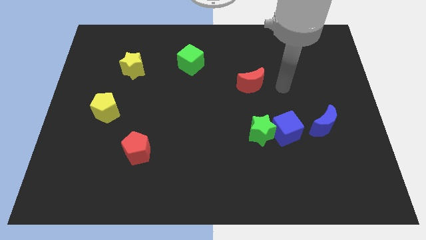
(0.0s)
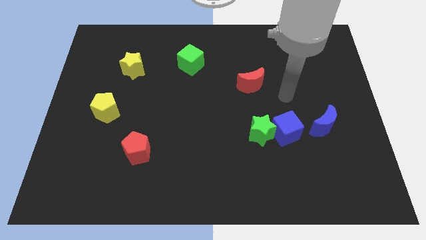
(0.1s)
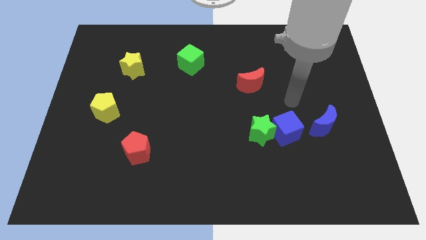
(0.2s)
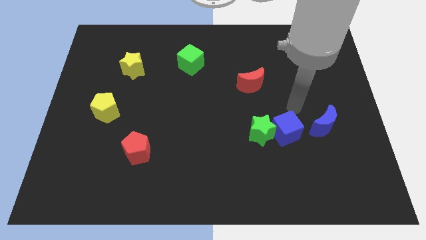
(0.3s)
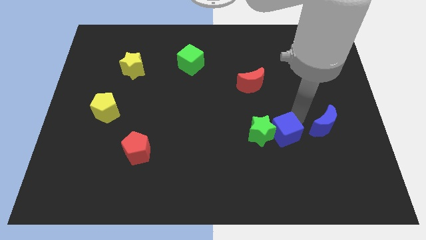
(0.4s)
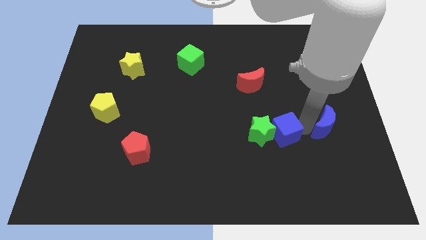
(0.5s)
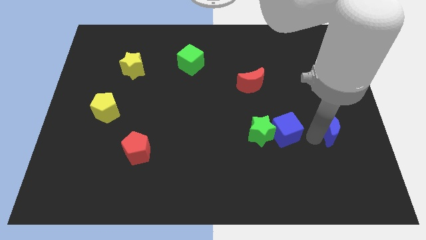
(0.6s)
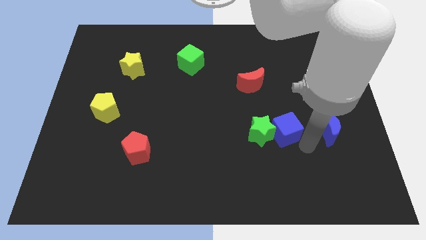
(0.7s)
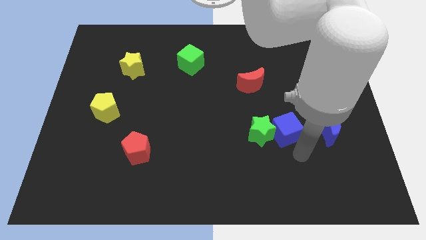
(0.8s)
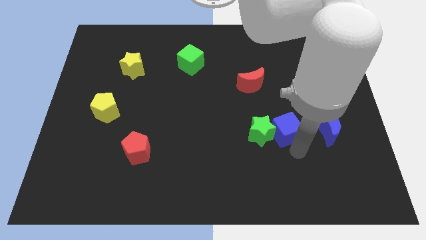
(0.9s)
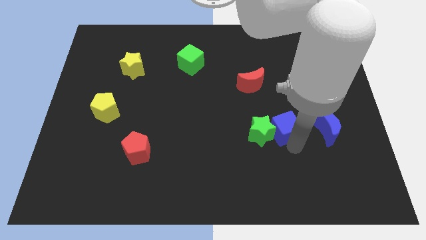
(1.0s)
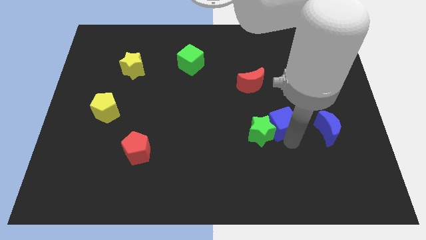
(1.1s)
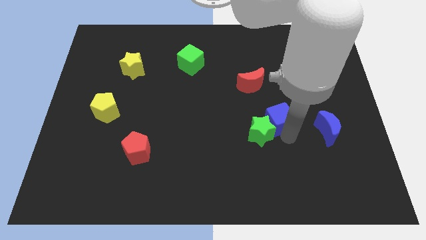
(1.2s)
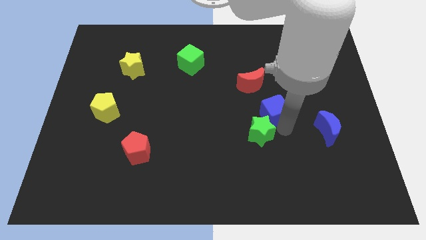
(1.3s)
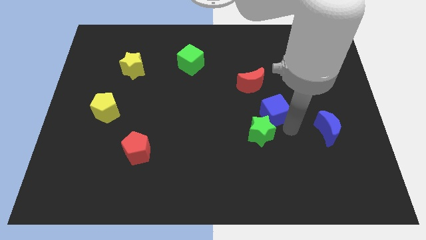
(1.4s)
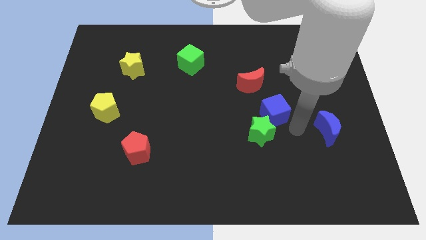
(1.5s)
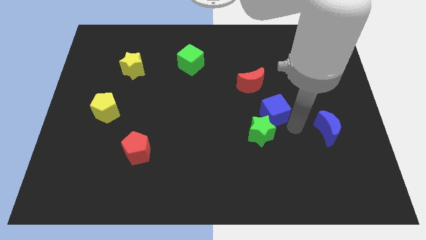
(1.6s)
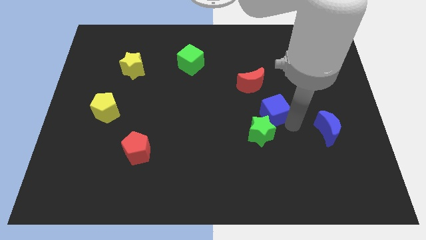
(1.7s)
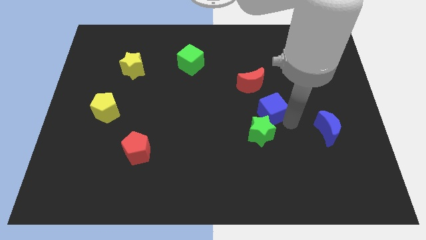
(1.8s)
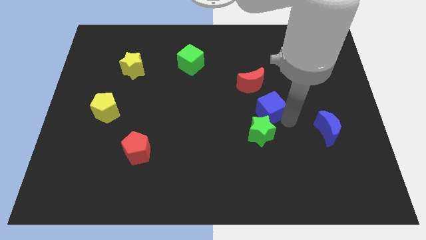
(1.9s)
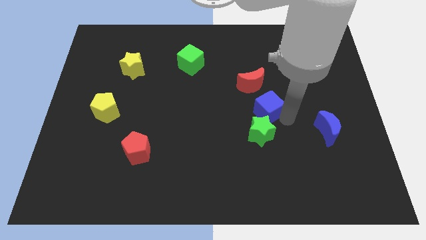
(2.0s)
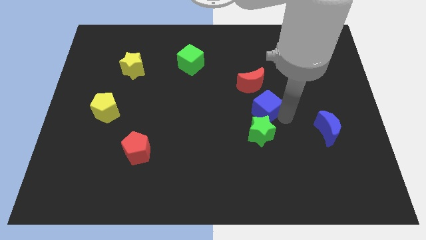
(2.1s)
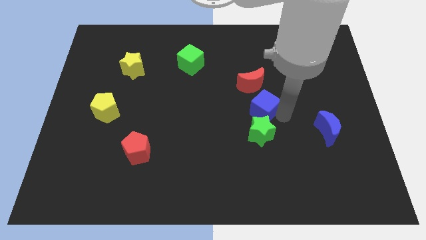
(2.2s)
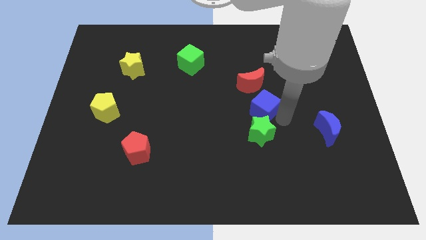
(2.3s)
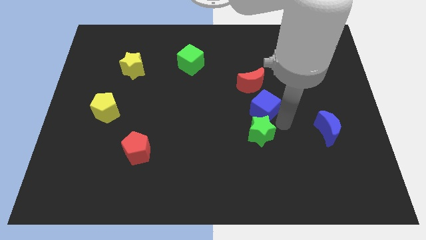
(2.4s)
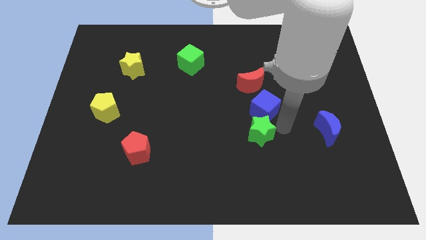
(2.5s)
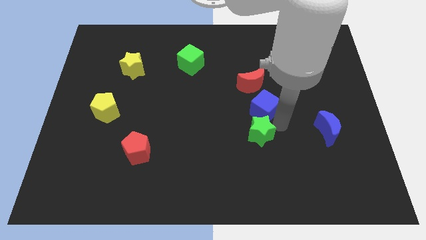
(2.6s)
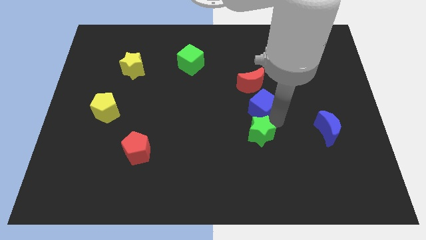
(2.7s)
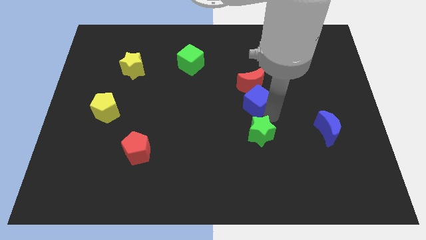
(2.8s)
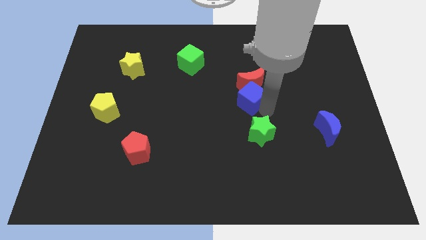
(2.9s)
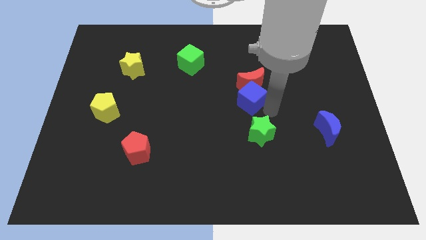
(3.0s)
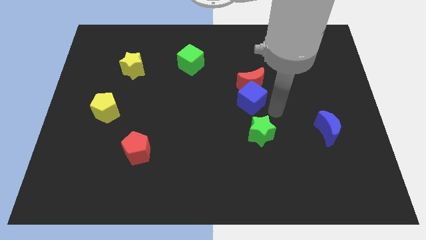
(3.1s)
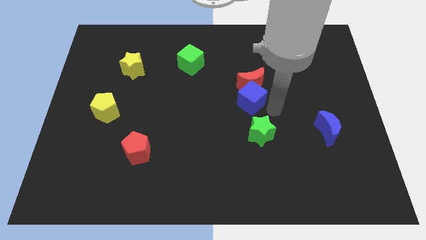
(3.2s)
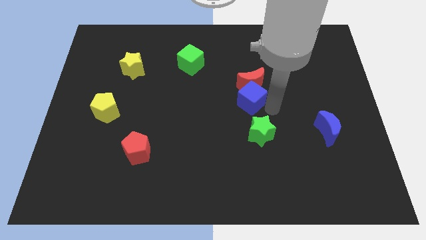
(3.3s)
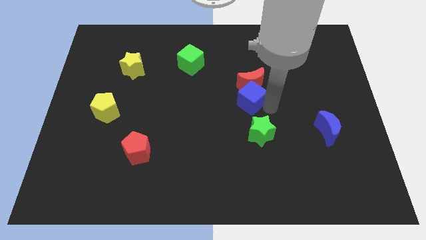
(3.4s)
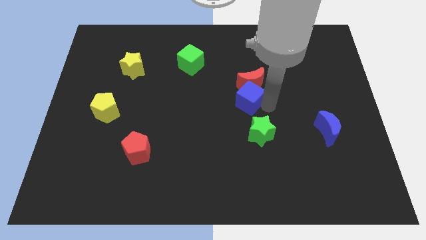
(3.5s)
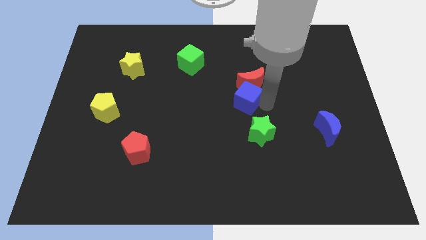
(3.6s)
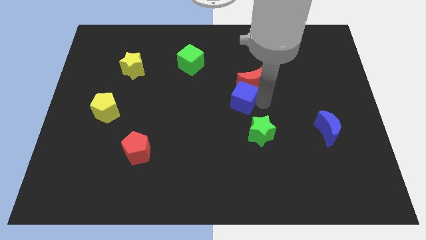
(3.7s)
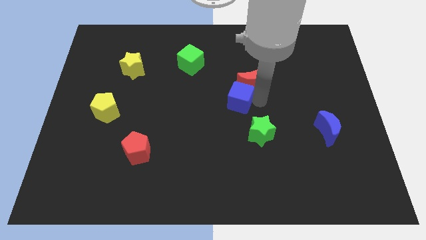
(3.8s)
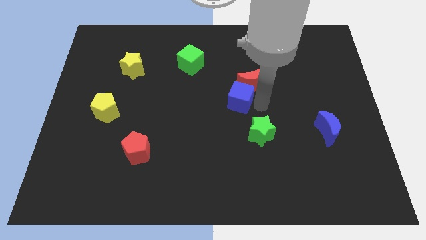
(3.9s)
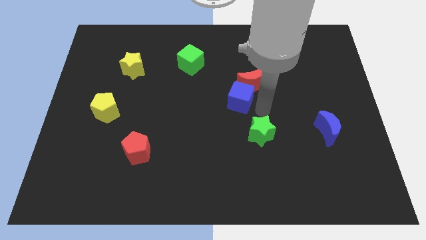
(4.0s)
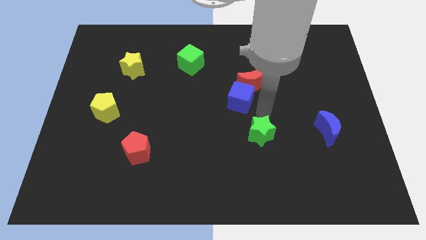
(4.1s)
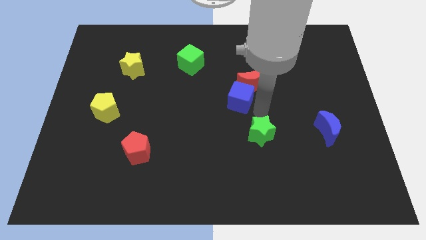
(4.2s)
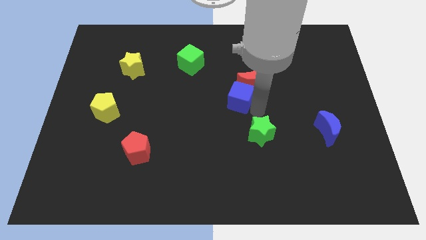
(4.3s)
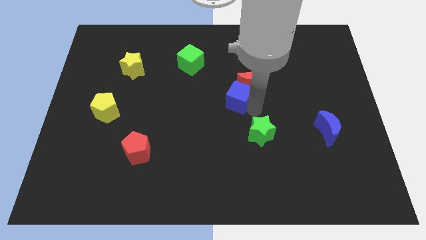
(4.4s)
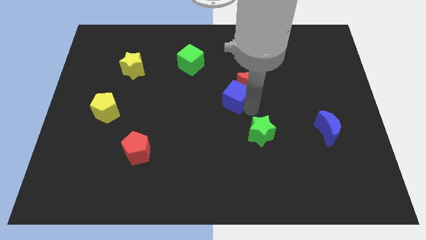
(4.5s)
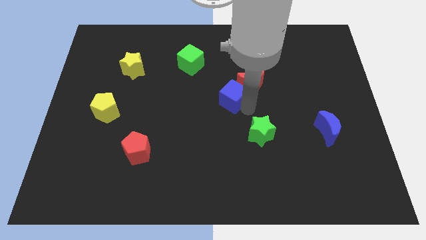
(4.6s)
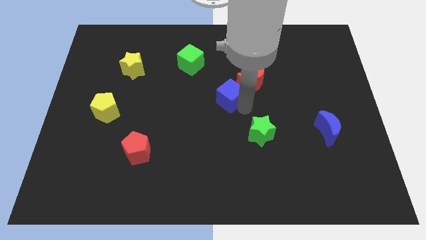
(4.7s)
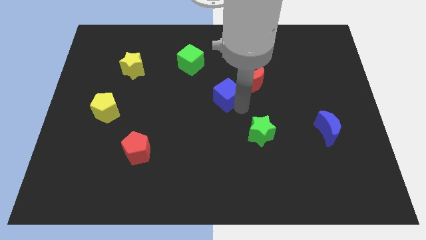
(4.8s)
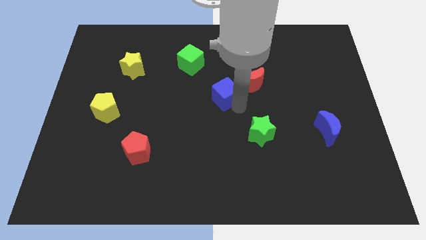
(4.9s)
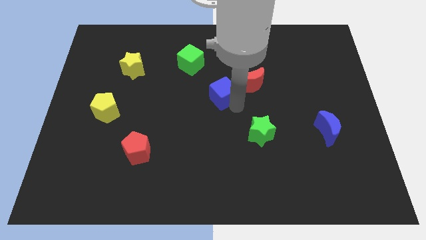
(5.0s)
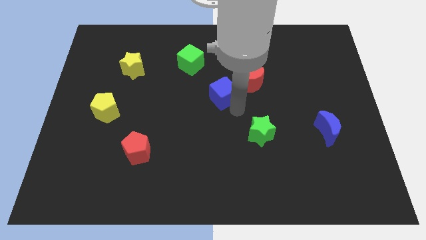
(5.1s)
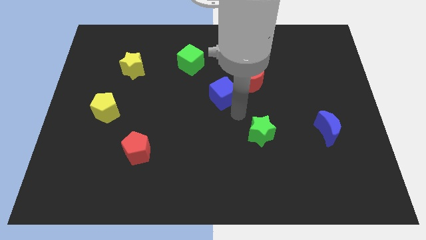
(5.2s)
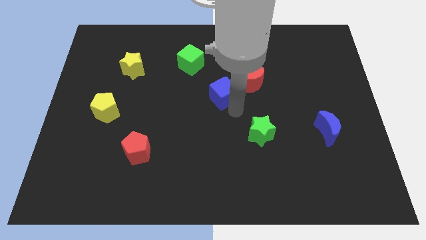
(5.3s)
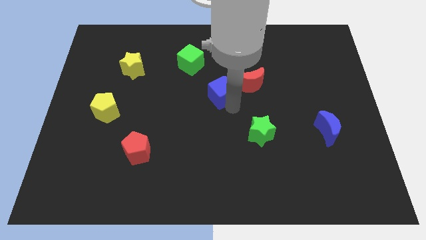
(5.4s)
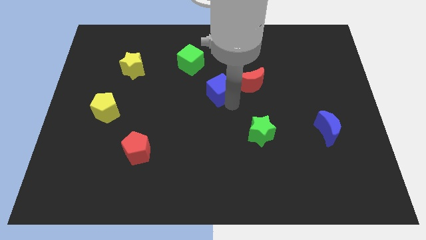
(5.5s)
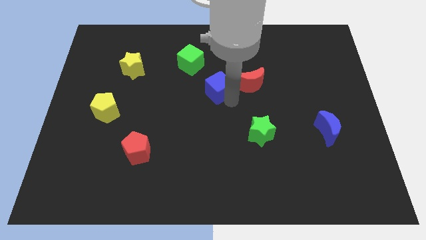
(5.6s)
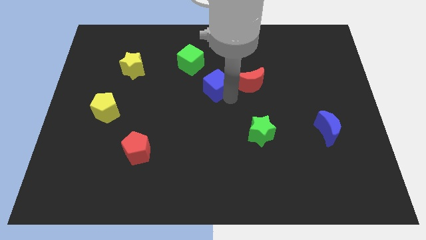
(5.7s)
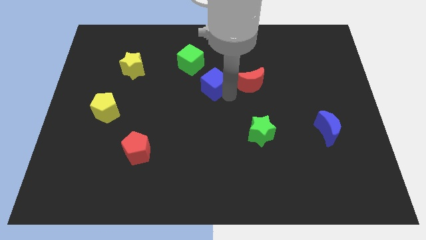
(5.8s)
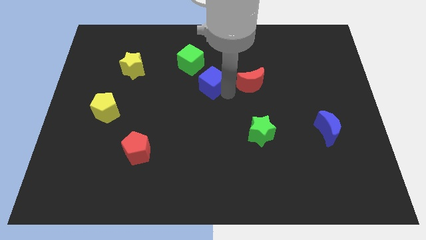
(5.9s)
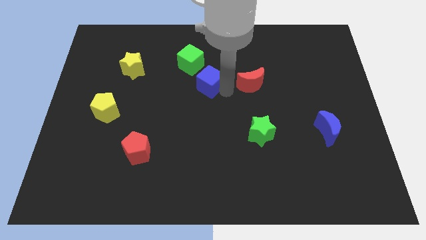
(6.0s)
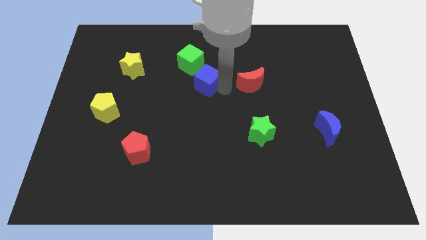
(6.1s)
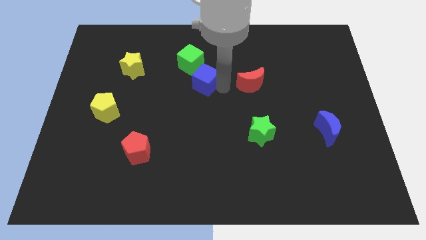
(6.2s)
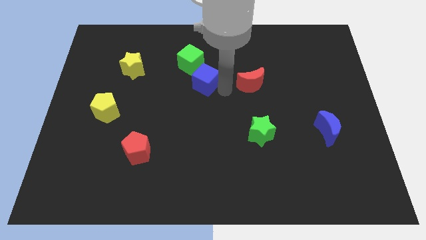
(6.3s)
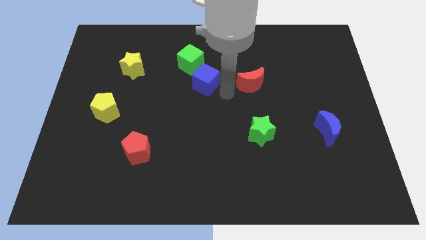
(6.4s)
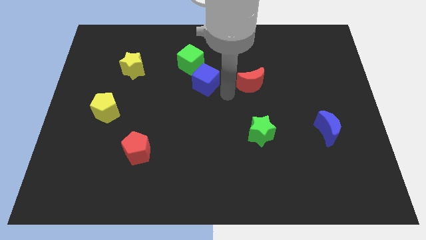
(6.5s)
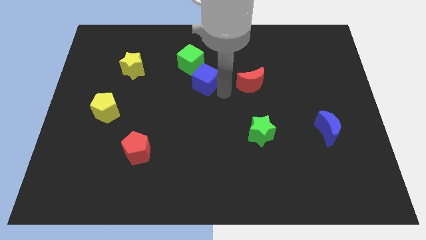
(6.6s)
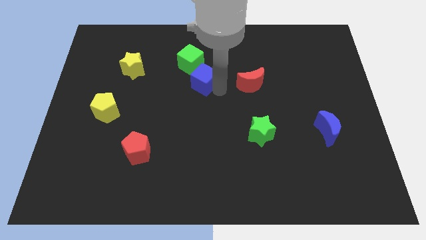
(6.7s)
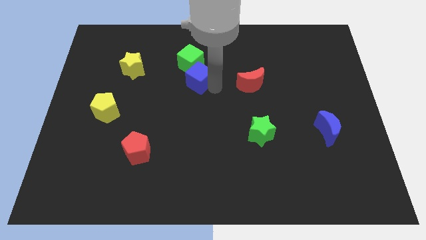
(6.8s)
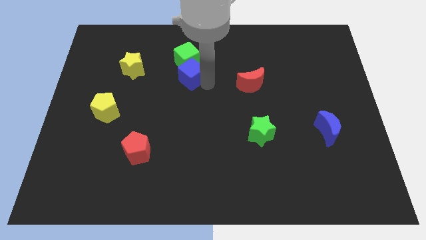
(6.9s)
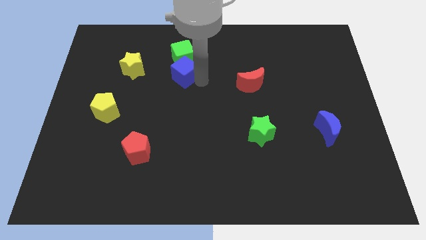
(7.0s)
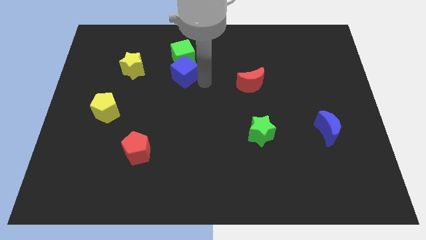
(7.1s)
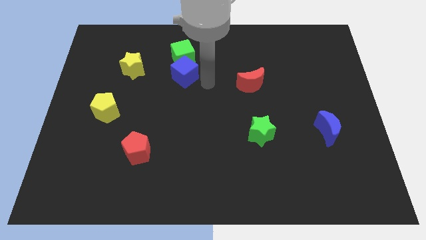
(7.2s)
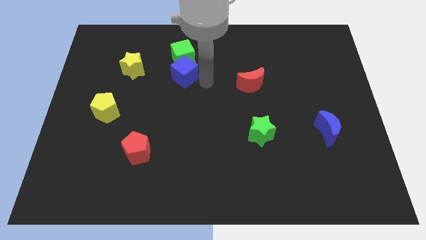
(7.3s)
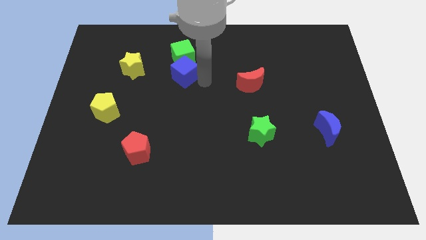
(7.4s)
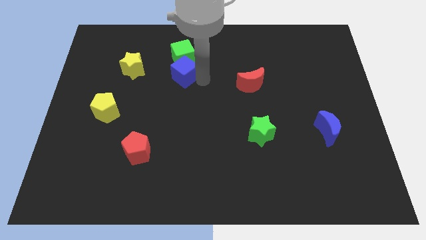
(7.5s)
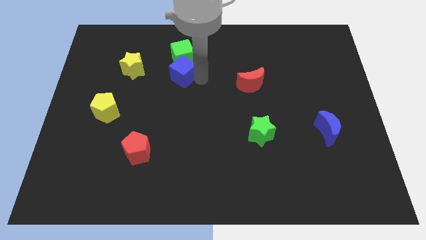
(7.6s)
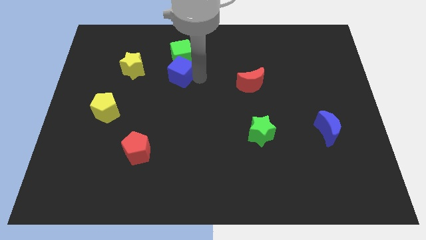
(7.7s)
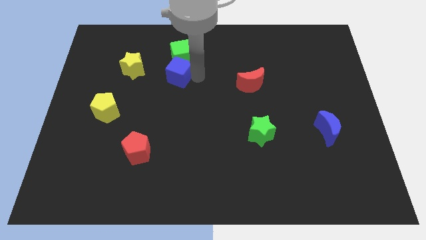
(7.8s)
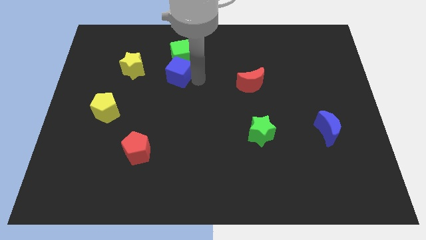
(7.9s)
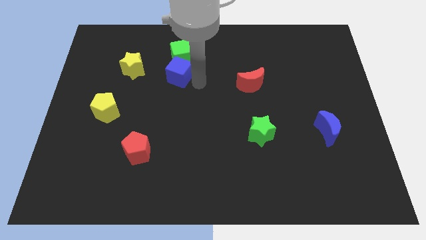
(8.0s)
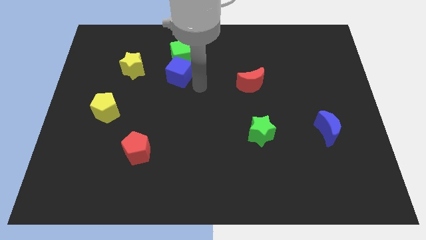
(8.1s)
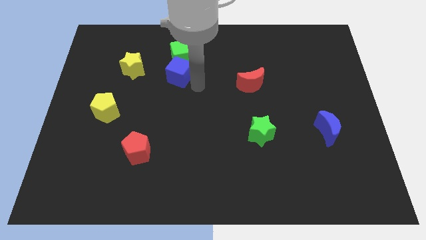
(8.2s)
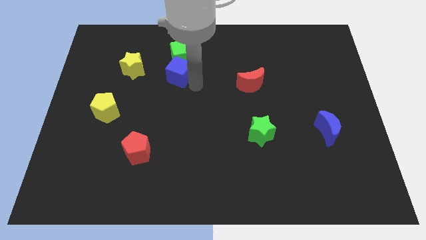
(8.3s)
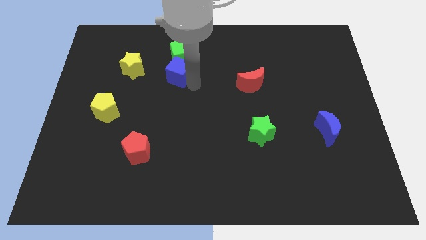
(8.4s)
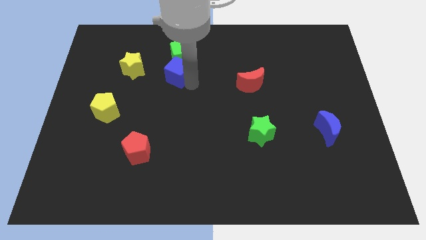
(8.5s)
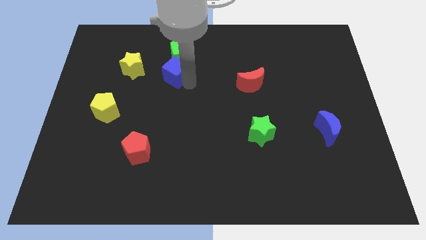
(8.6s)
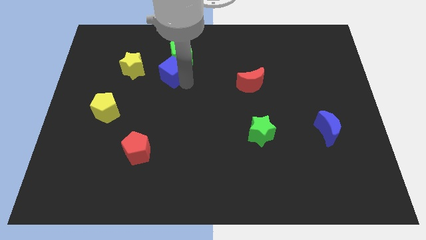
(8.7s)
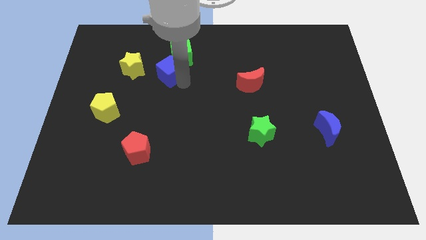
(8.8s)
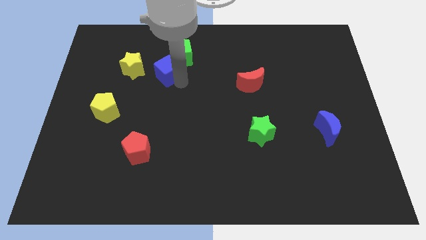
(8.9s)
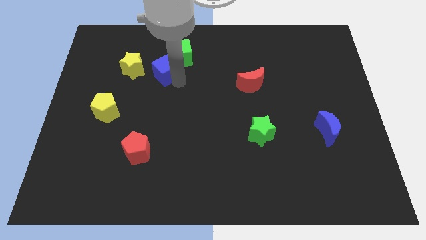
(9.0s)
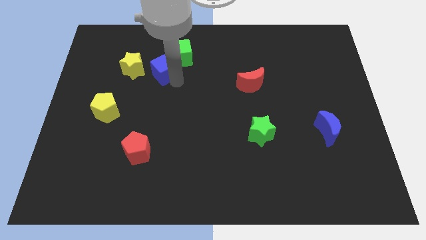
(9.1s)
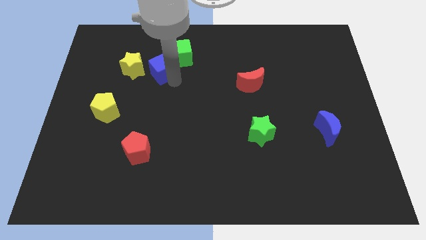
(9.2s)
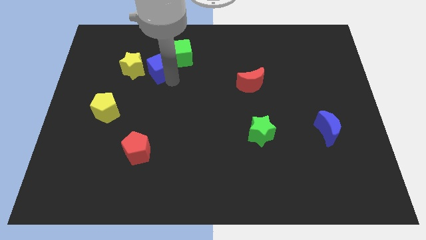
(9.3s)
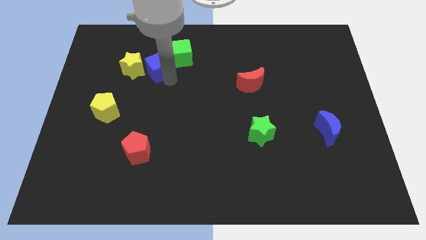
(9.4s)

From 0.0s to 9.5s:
move the blue cube to the top right side of the yellow star
